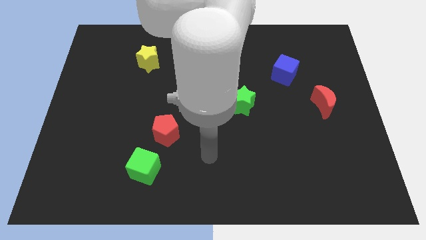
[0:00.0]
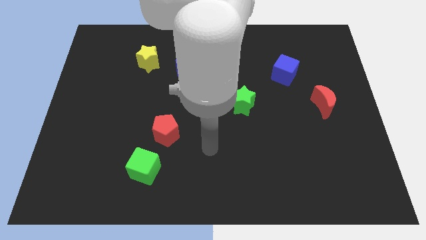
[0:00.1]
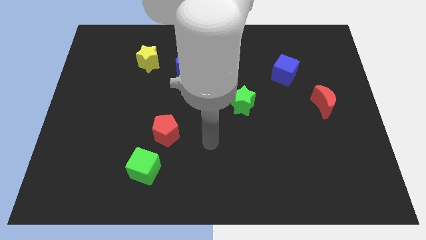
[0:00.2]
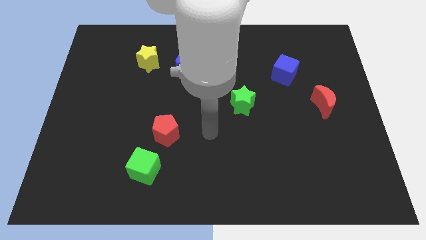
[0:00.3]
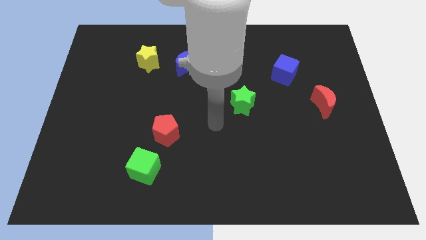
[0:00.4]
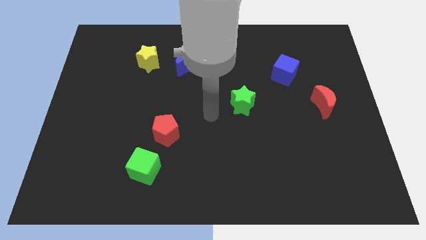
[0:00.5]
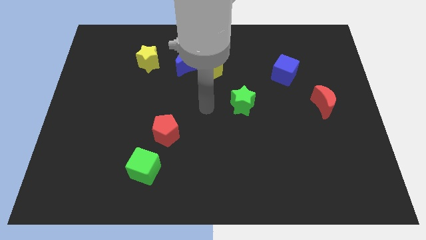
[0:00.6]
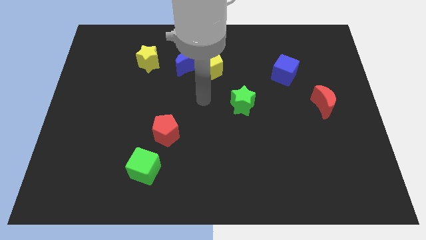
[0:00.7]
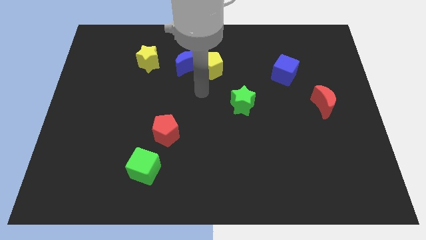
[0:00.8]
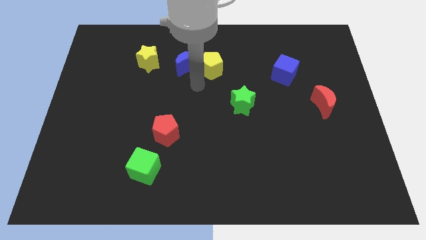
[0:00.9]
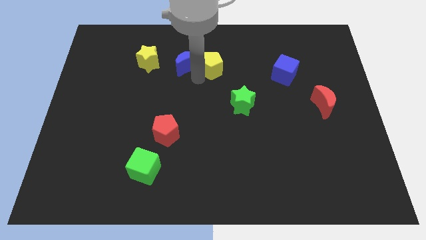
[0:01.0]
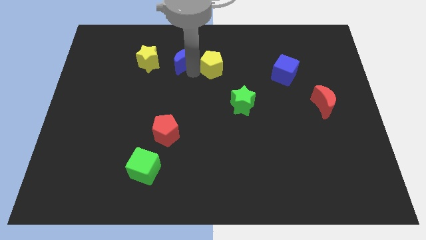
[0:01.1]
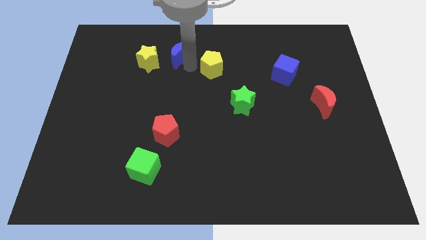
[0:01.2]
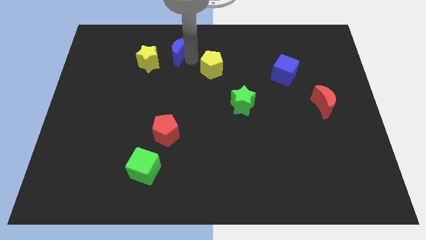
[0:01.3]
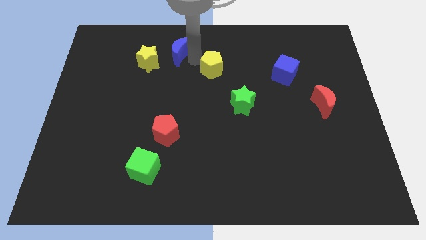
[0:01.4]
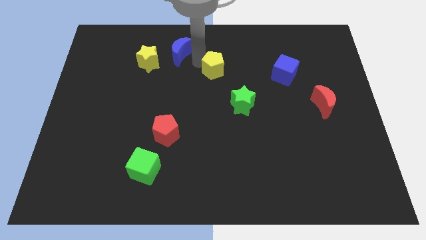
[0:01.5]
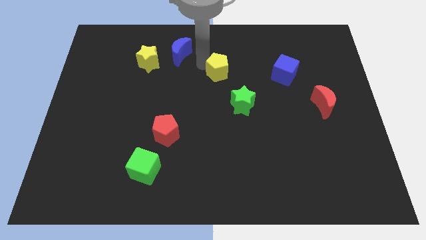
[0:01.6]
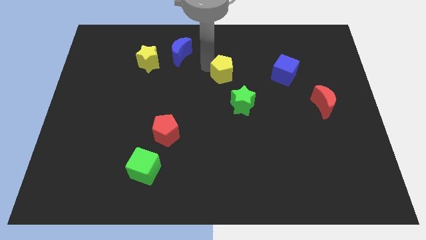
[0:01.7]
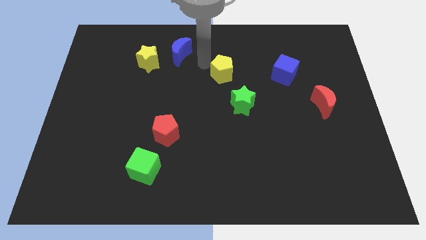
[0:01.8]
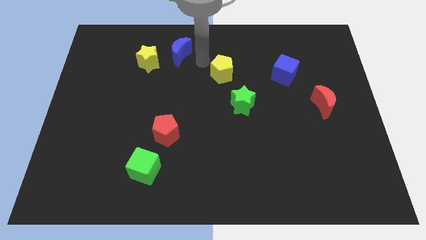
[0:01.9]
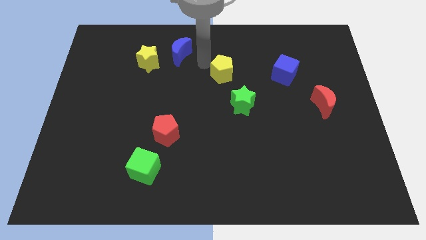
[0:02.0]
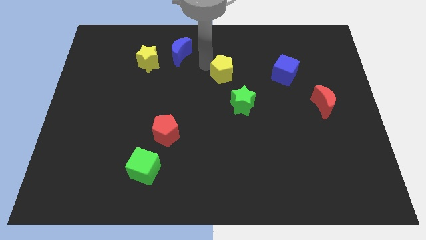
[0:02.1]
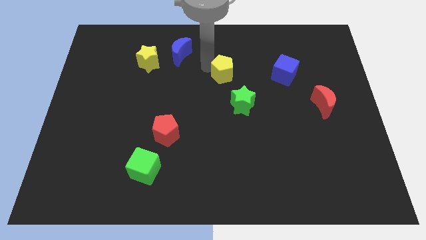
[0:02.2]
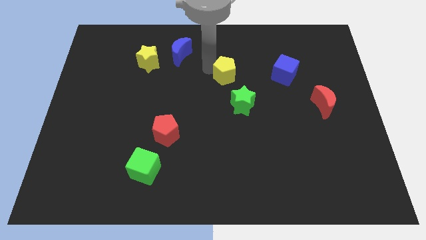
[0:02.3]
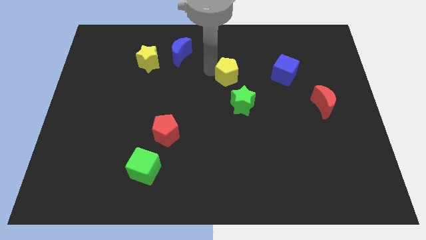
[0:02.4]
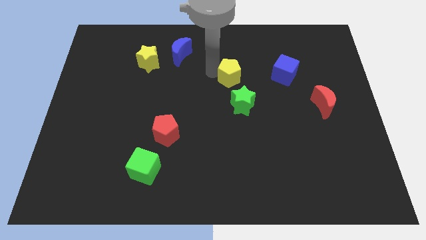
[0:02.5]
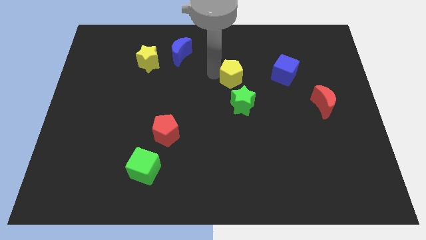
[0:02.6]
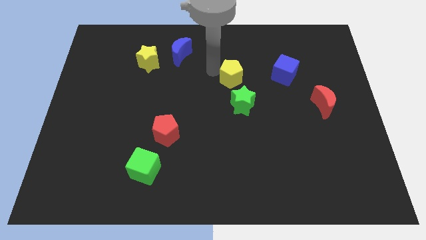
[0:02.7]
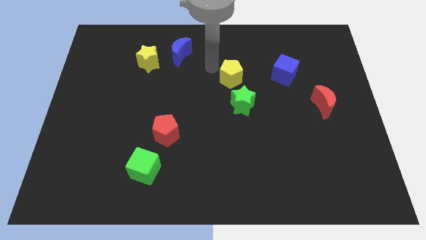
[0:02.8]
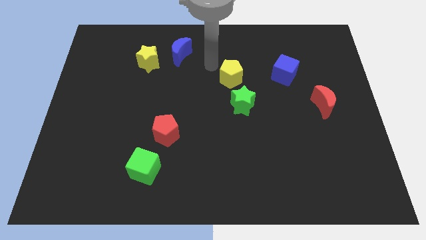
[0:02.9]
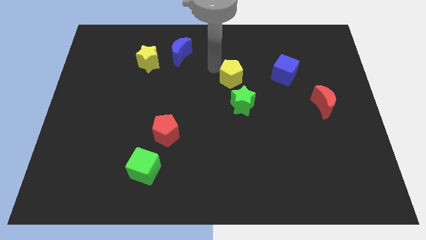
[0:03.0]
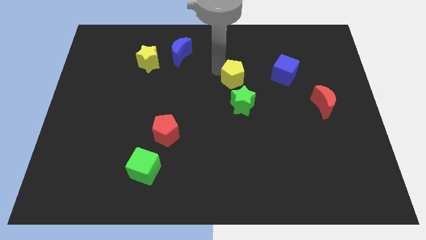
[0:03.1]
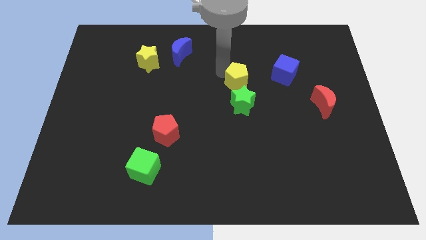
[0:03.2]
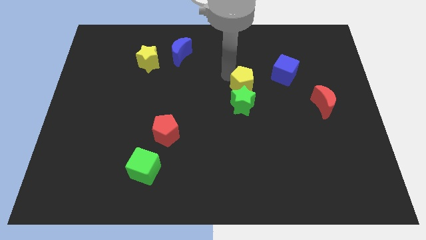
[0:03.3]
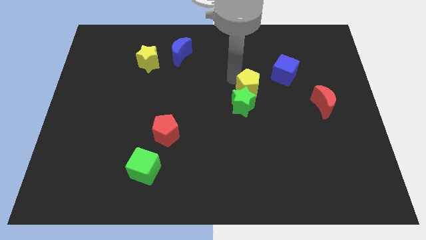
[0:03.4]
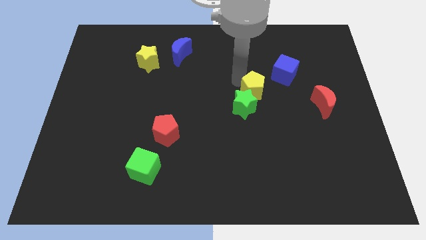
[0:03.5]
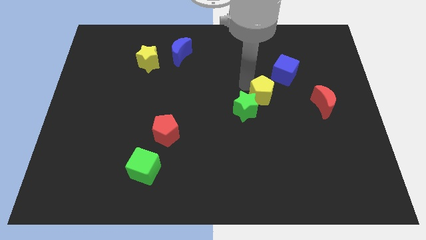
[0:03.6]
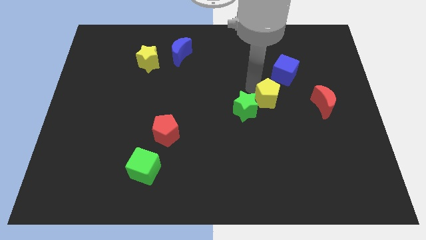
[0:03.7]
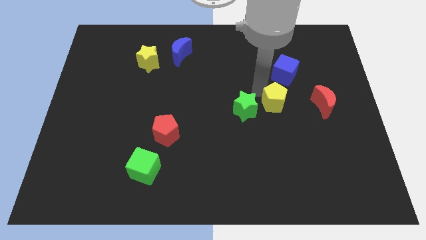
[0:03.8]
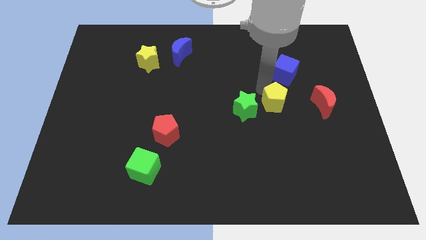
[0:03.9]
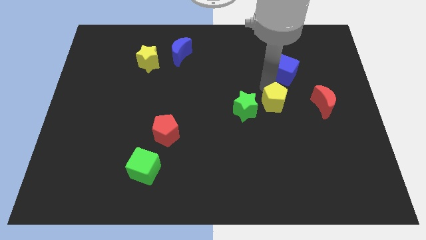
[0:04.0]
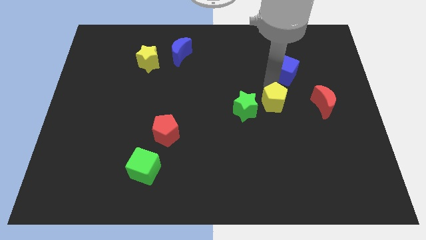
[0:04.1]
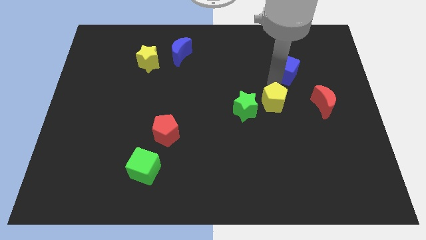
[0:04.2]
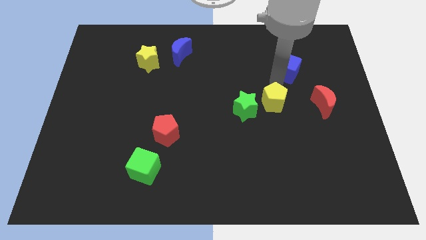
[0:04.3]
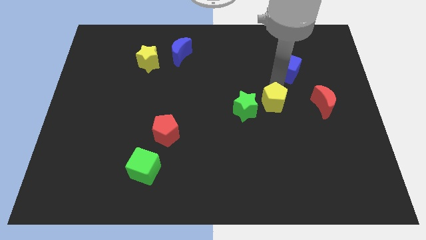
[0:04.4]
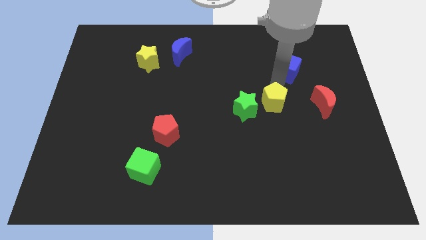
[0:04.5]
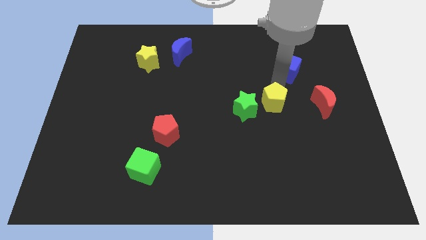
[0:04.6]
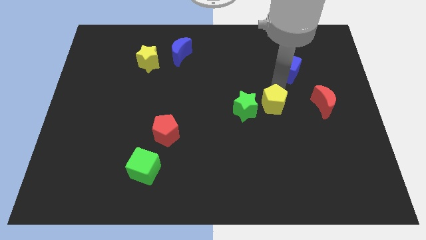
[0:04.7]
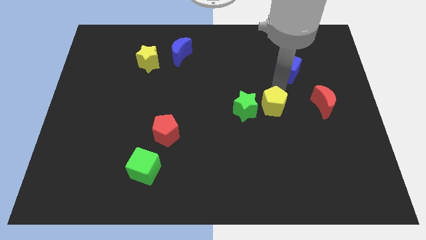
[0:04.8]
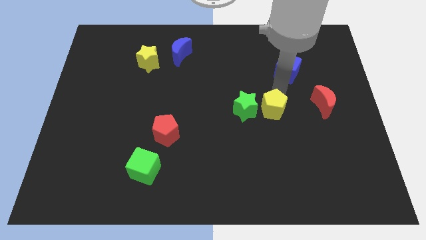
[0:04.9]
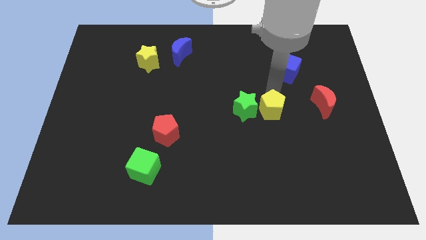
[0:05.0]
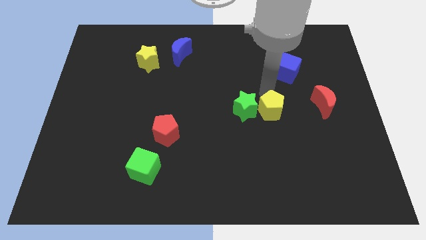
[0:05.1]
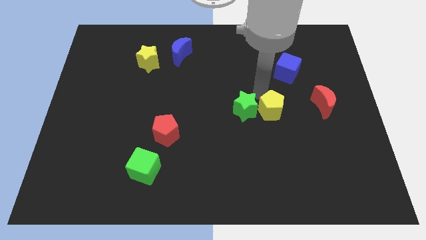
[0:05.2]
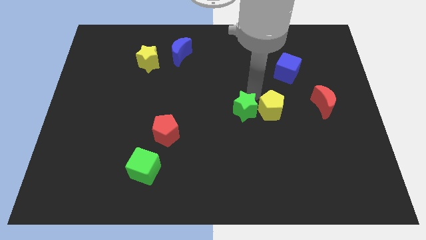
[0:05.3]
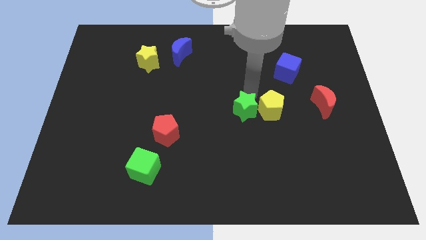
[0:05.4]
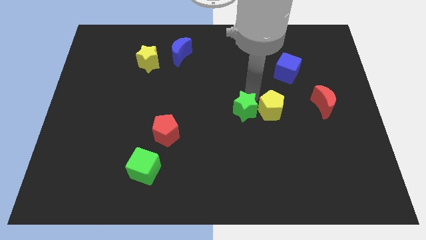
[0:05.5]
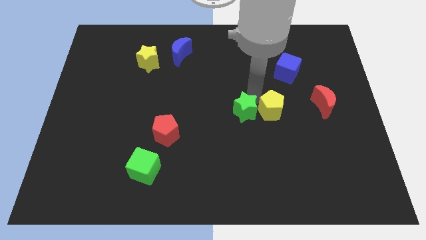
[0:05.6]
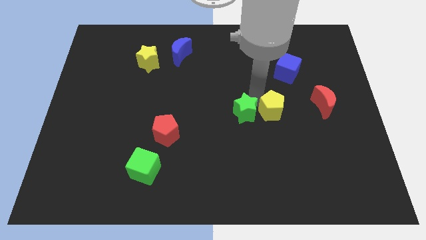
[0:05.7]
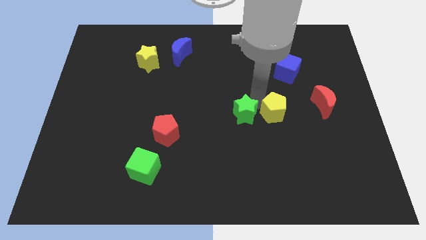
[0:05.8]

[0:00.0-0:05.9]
push the yellow pentagon downwards and to the right diagonally

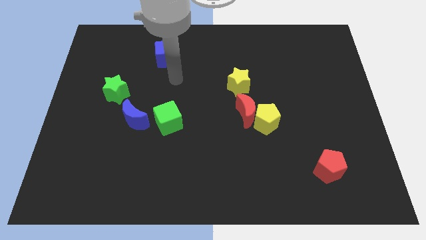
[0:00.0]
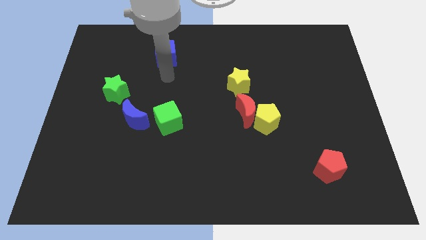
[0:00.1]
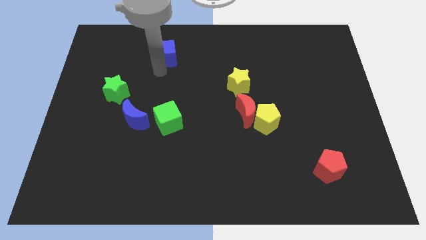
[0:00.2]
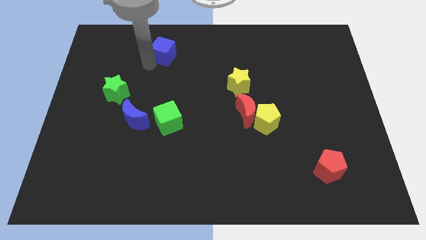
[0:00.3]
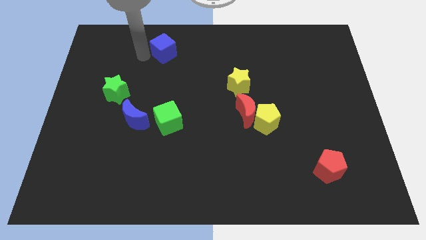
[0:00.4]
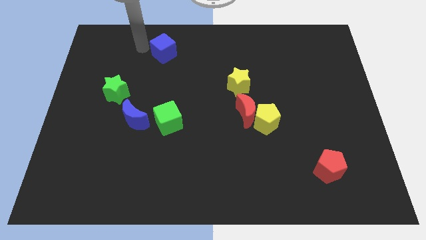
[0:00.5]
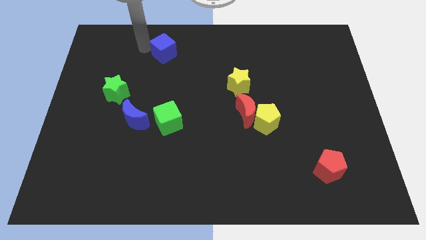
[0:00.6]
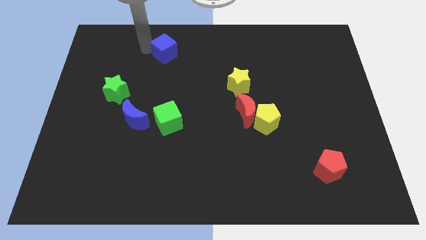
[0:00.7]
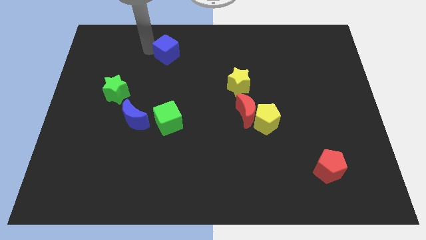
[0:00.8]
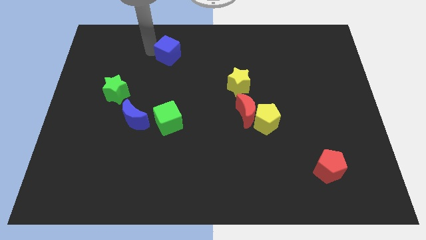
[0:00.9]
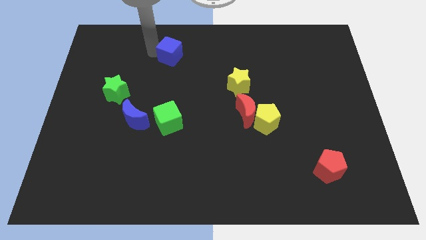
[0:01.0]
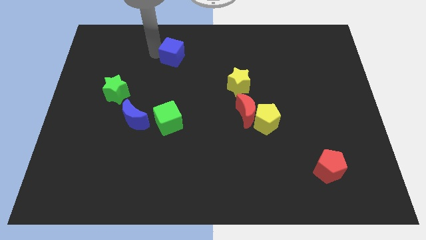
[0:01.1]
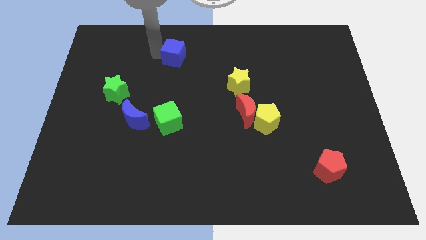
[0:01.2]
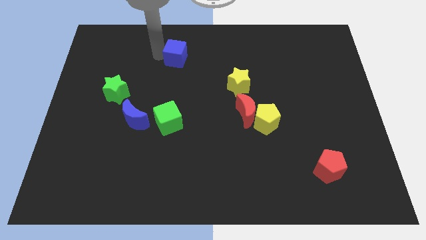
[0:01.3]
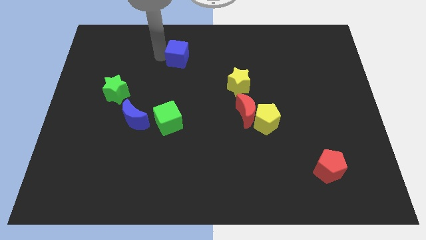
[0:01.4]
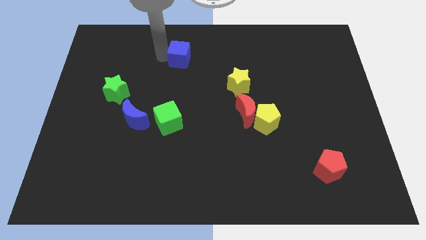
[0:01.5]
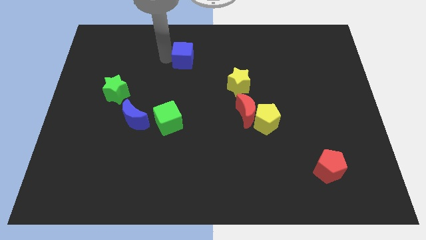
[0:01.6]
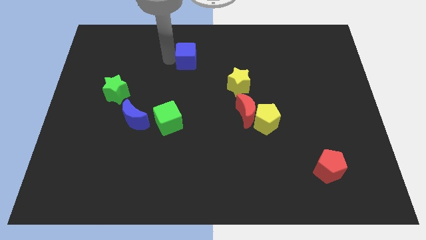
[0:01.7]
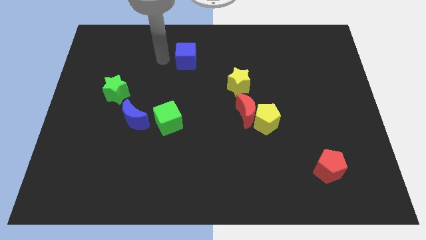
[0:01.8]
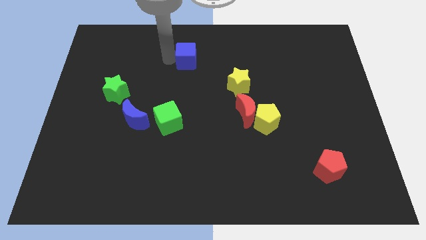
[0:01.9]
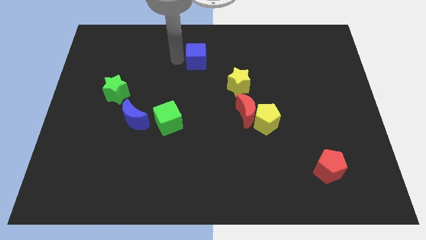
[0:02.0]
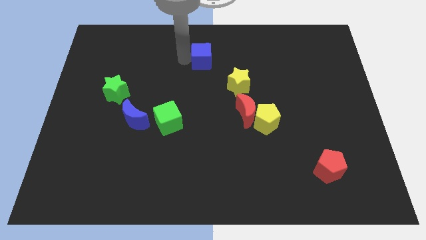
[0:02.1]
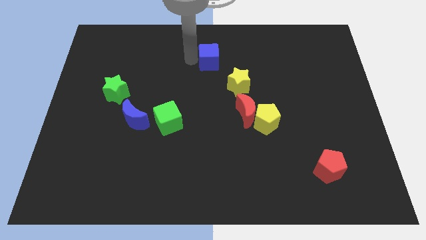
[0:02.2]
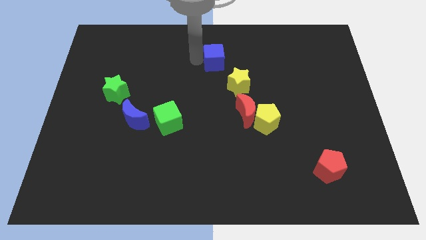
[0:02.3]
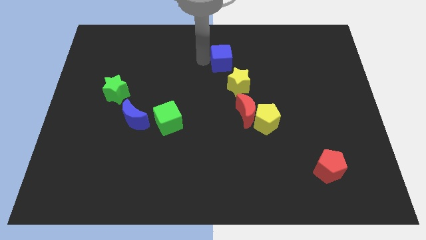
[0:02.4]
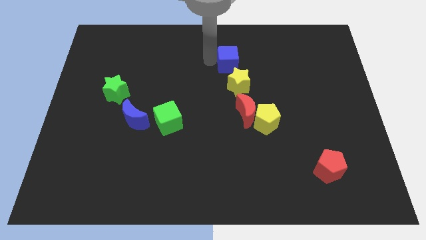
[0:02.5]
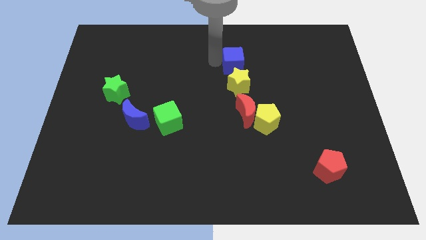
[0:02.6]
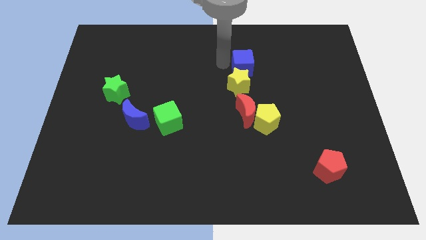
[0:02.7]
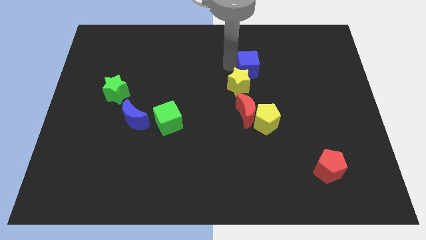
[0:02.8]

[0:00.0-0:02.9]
slide the blue cube to the right
